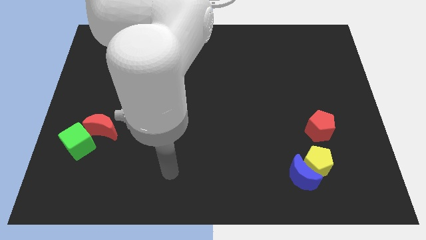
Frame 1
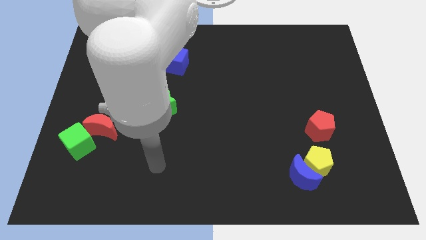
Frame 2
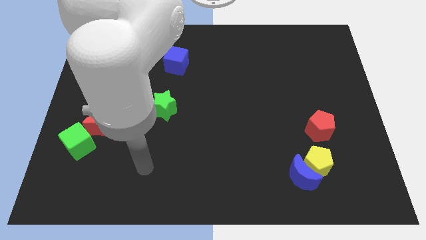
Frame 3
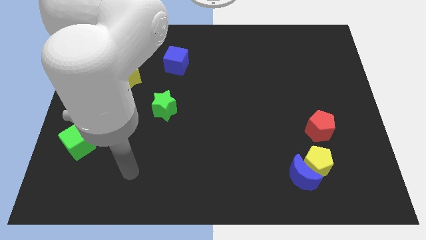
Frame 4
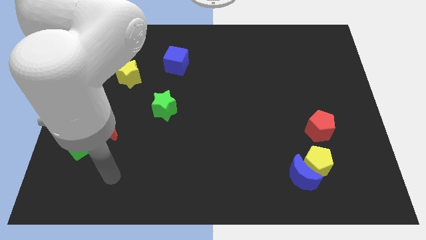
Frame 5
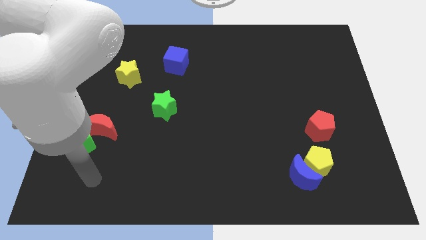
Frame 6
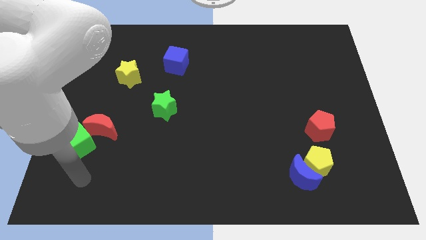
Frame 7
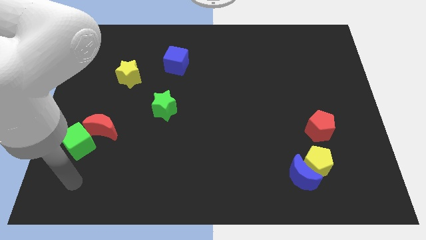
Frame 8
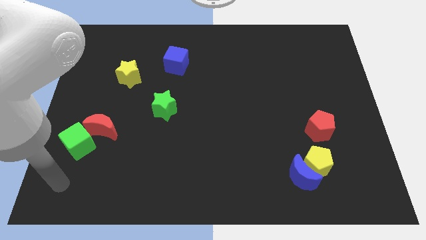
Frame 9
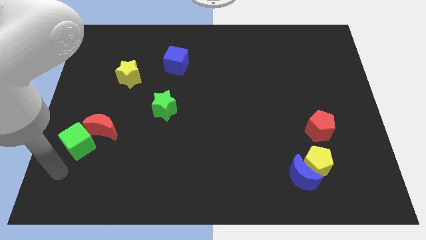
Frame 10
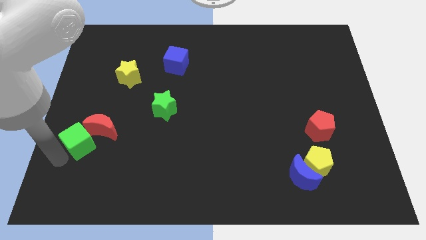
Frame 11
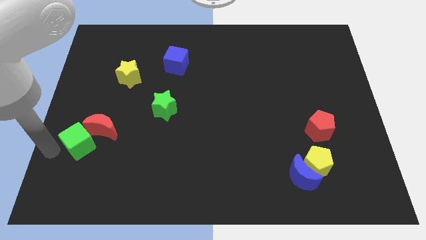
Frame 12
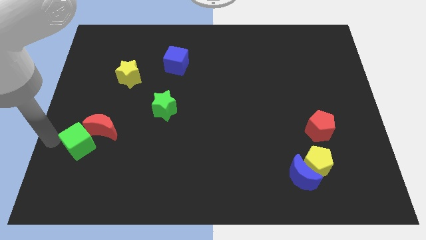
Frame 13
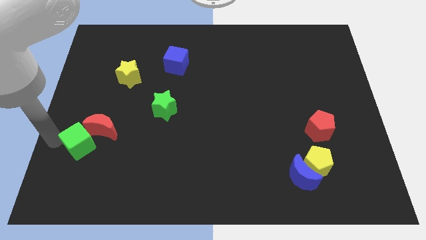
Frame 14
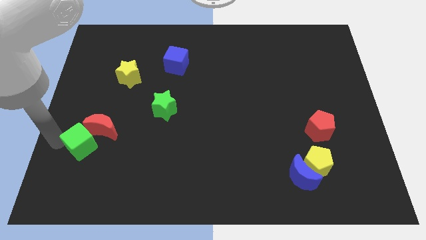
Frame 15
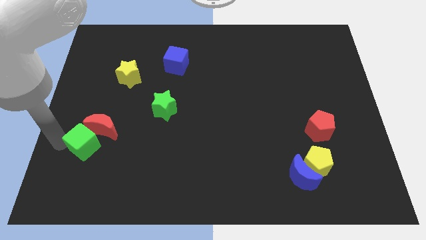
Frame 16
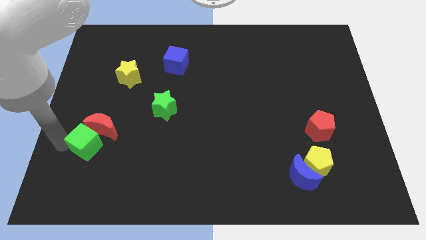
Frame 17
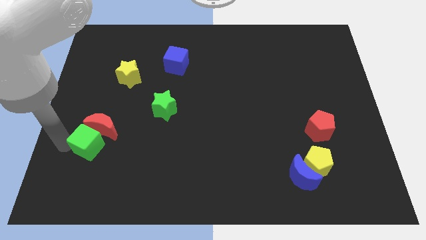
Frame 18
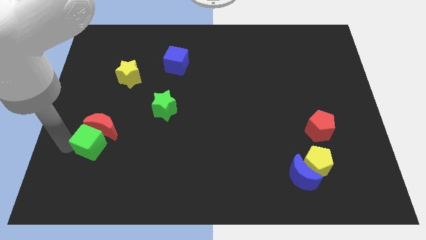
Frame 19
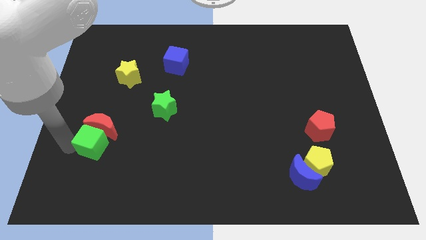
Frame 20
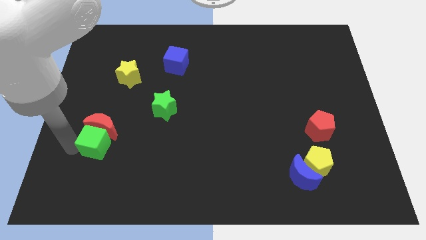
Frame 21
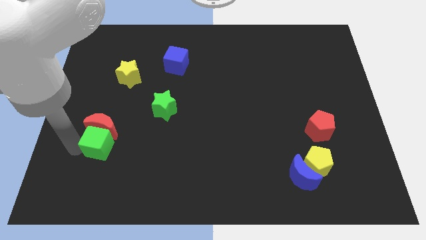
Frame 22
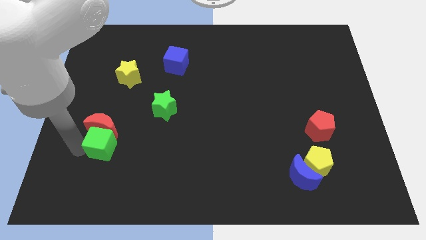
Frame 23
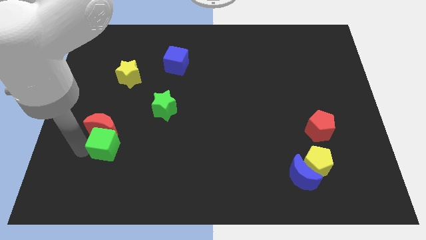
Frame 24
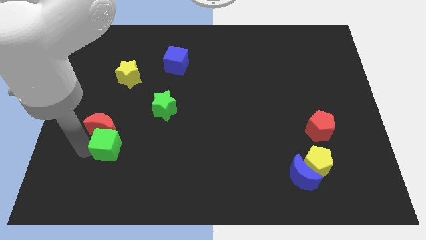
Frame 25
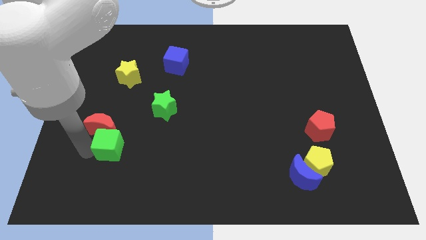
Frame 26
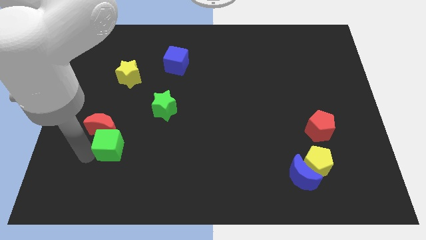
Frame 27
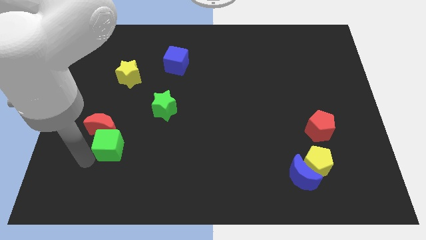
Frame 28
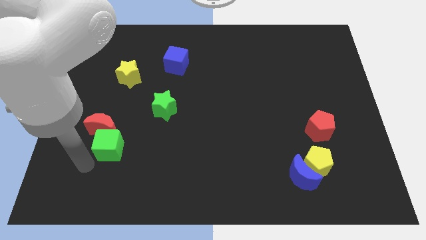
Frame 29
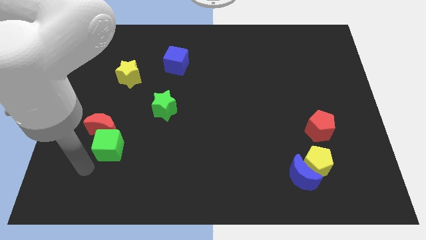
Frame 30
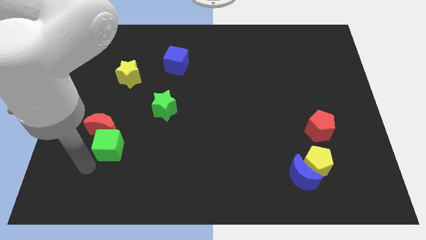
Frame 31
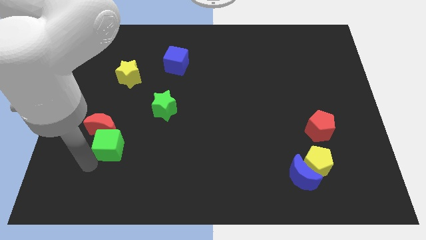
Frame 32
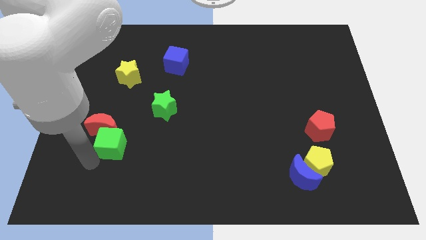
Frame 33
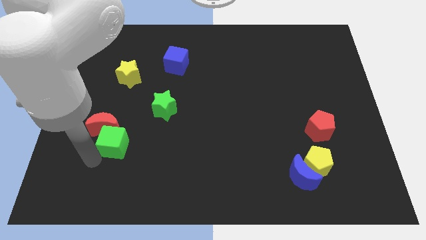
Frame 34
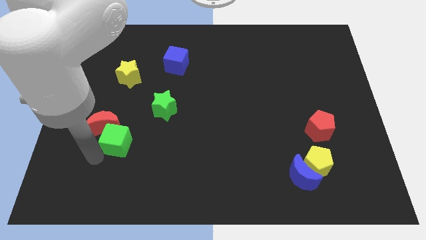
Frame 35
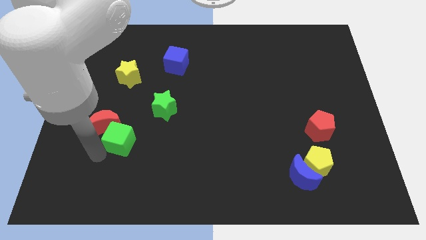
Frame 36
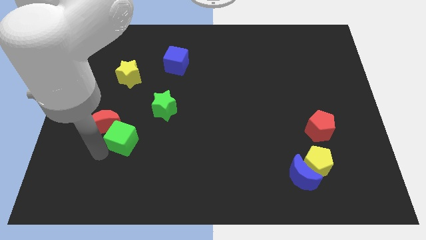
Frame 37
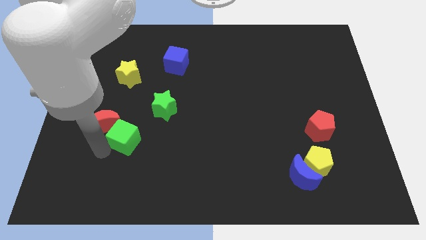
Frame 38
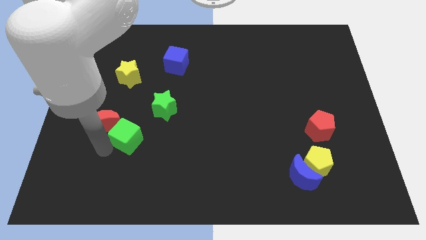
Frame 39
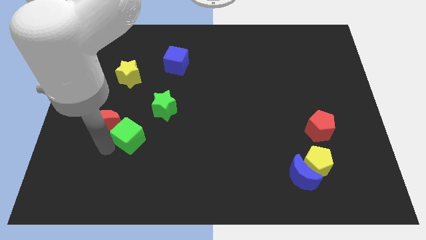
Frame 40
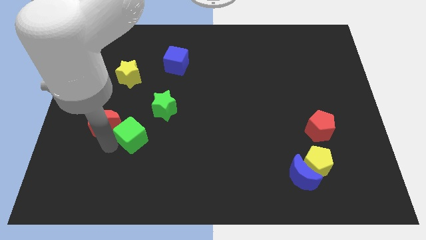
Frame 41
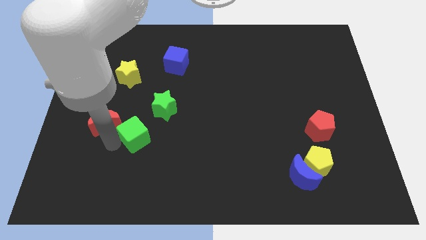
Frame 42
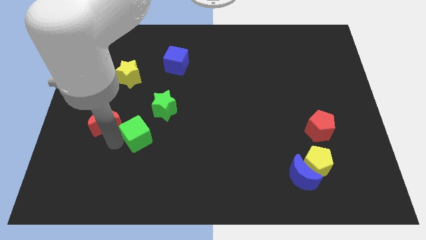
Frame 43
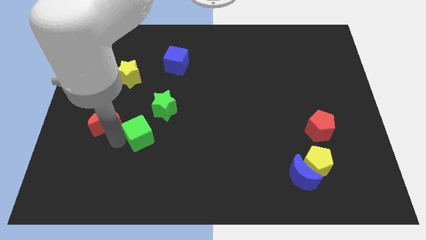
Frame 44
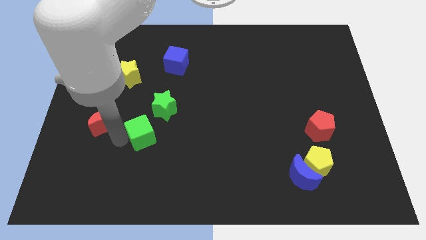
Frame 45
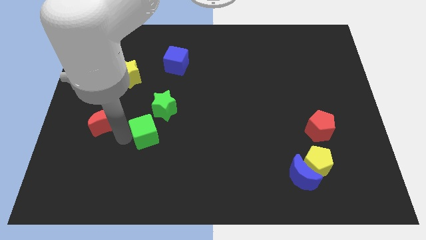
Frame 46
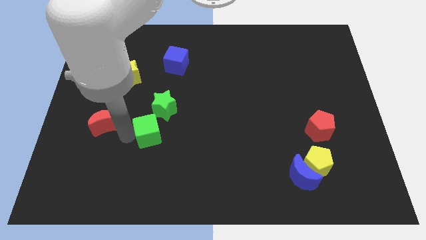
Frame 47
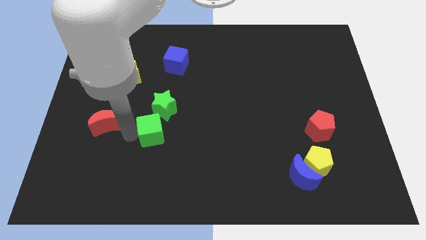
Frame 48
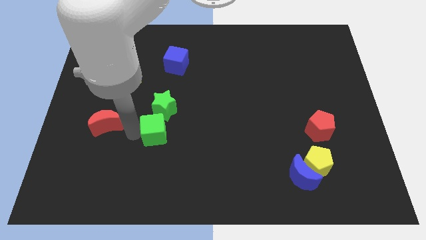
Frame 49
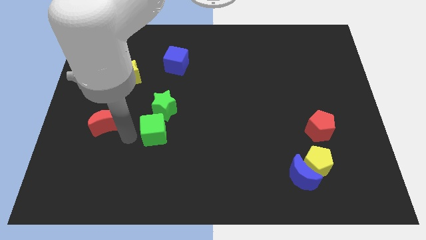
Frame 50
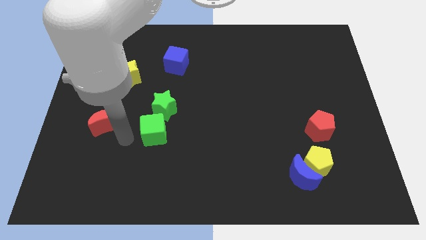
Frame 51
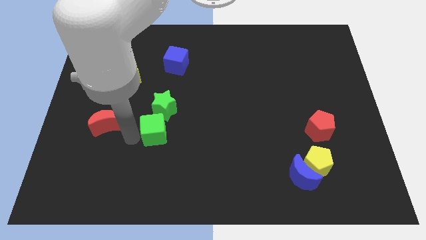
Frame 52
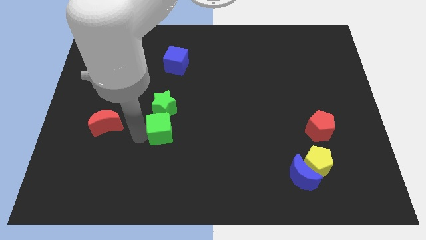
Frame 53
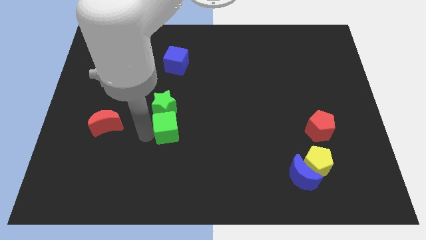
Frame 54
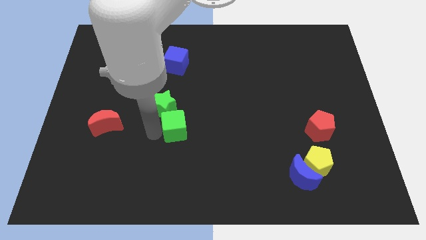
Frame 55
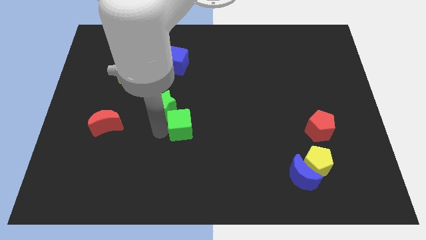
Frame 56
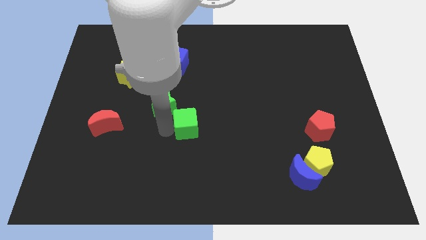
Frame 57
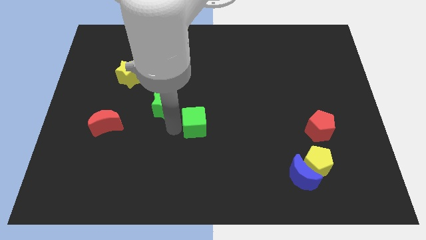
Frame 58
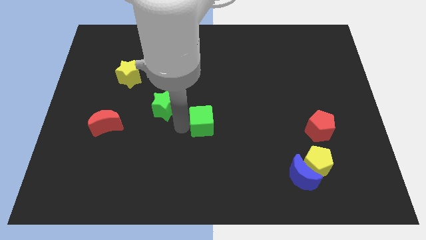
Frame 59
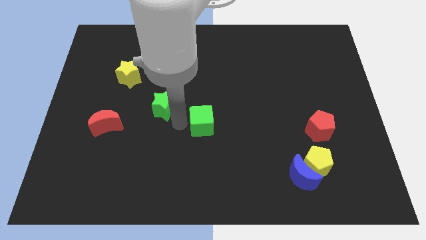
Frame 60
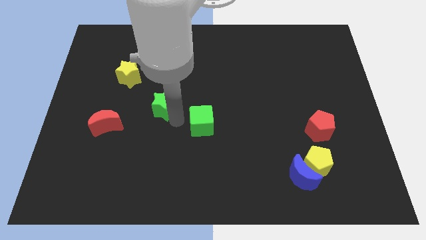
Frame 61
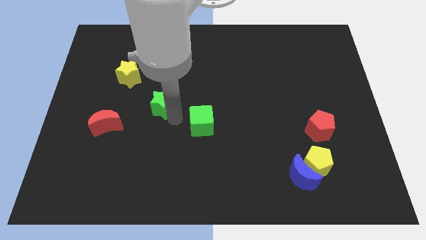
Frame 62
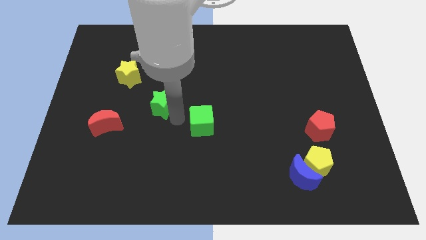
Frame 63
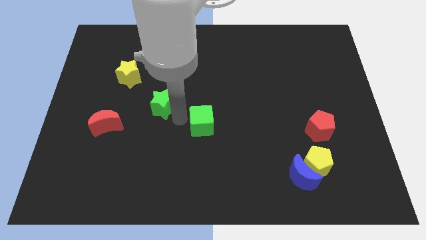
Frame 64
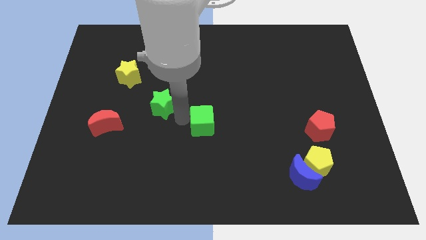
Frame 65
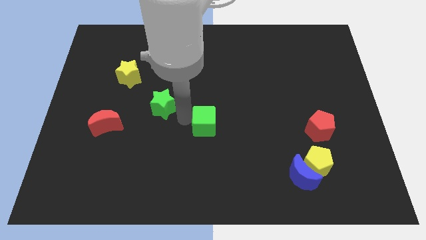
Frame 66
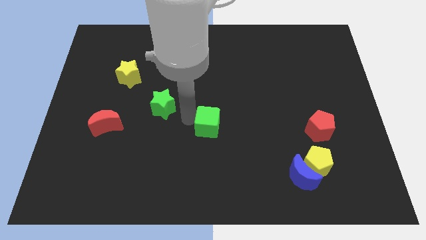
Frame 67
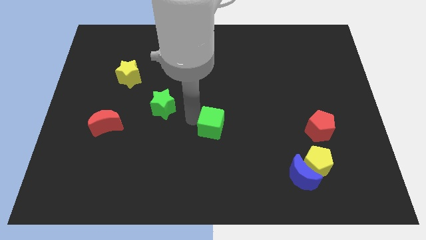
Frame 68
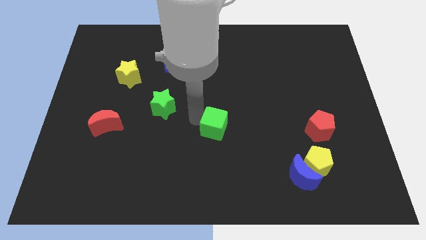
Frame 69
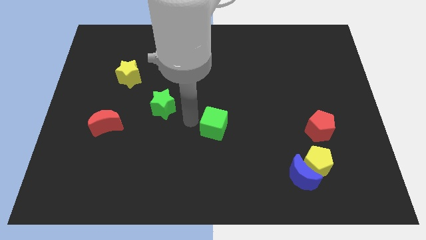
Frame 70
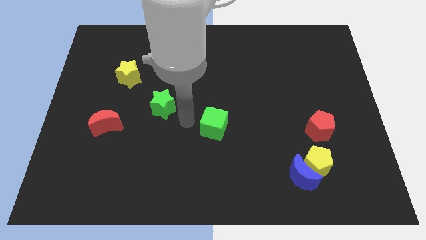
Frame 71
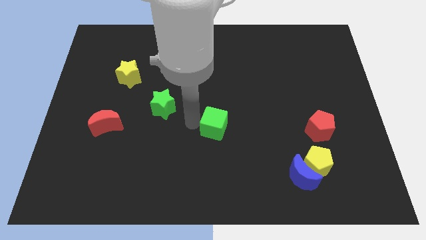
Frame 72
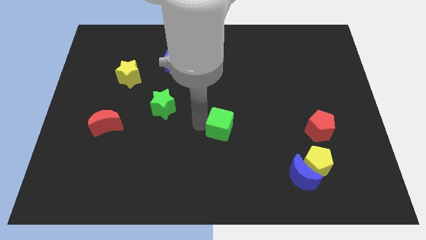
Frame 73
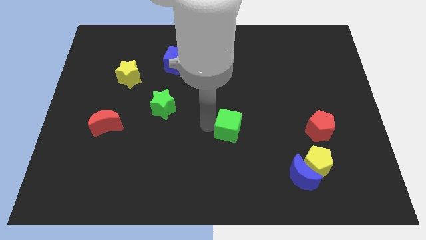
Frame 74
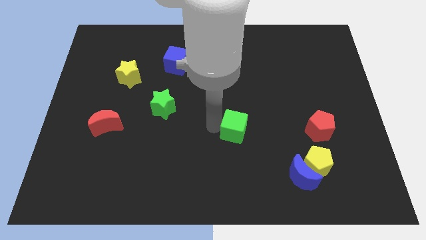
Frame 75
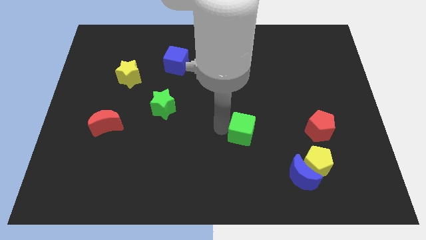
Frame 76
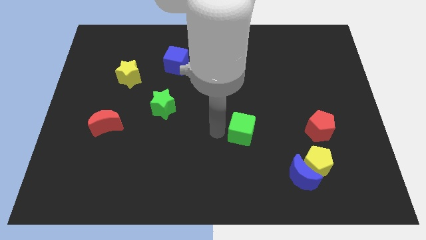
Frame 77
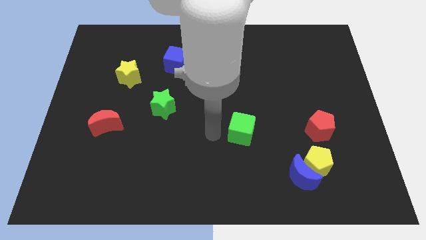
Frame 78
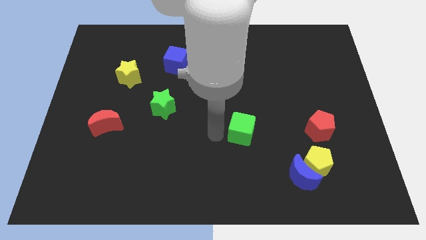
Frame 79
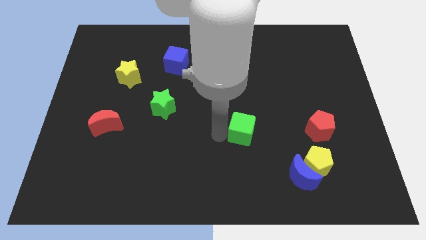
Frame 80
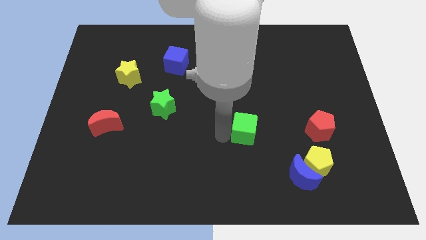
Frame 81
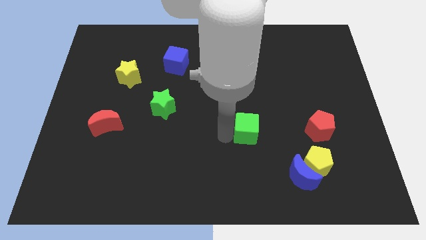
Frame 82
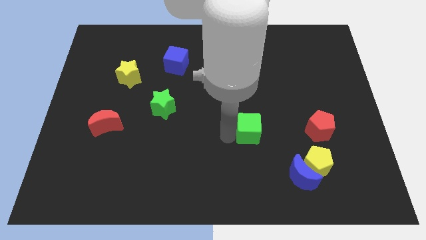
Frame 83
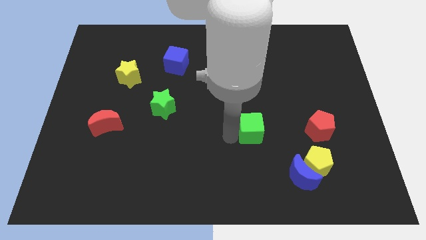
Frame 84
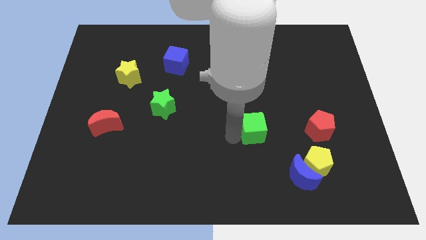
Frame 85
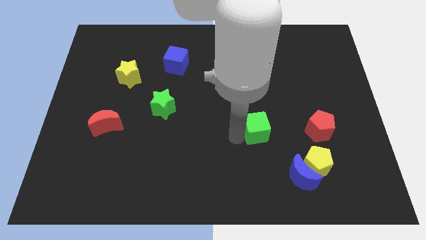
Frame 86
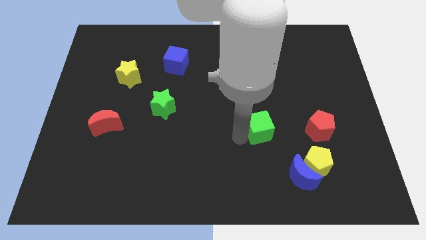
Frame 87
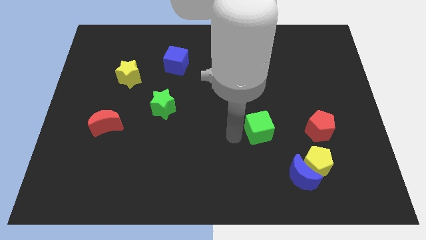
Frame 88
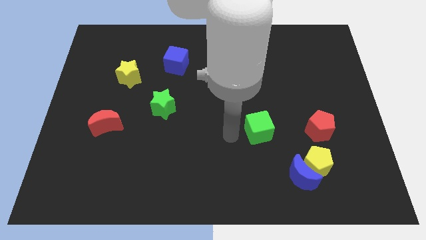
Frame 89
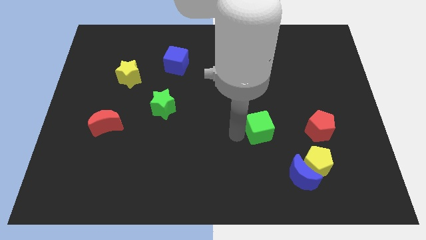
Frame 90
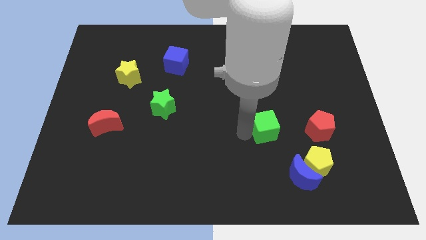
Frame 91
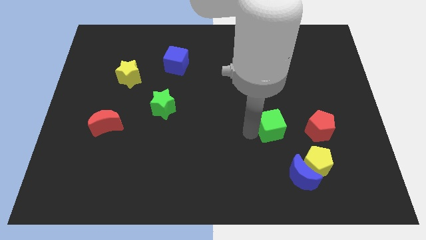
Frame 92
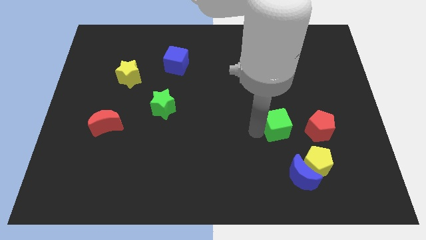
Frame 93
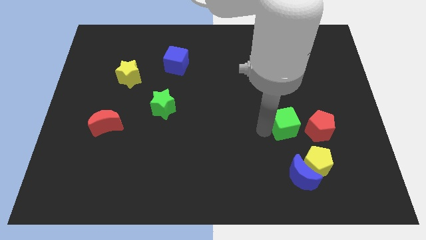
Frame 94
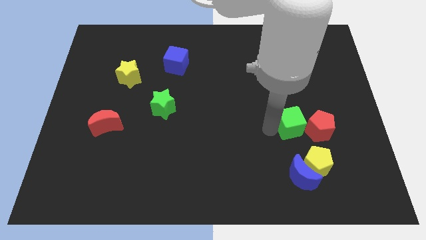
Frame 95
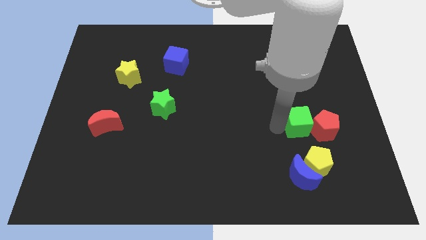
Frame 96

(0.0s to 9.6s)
slide the green cube to the red pentagon
